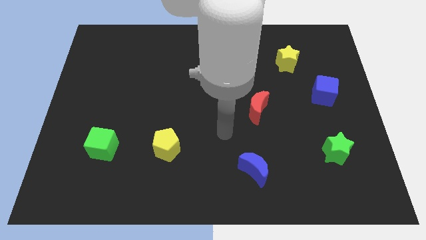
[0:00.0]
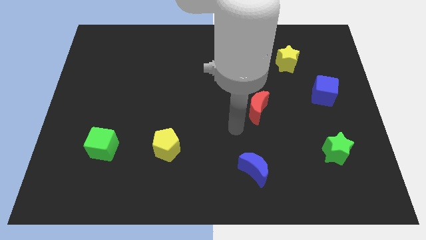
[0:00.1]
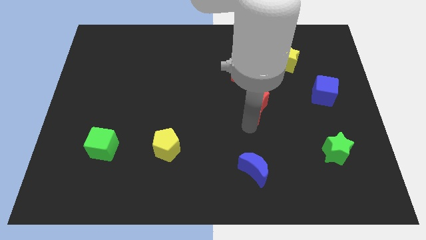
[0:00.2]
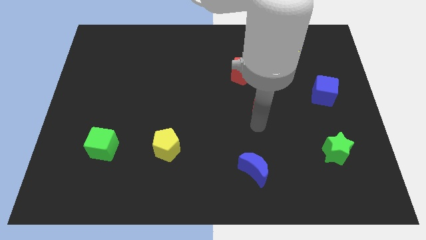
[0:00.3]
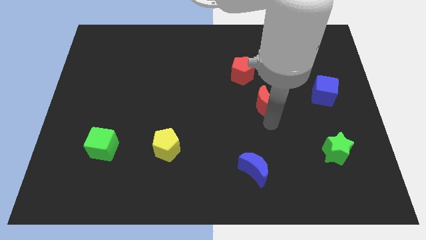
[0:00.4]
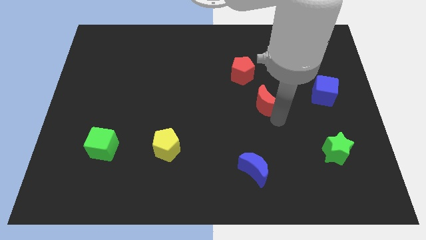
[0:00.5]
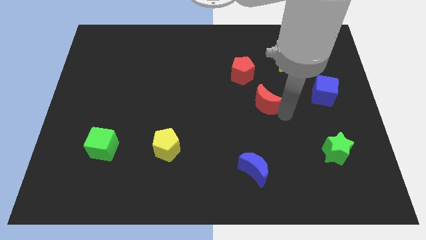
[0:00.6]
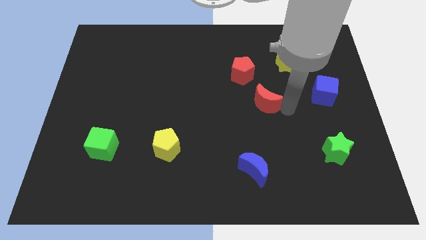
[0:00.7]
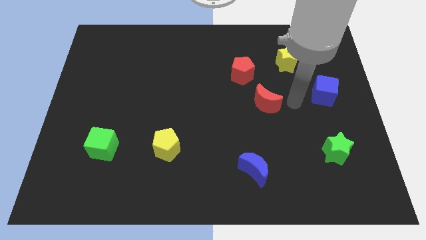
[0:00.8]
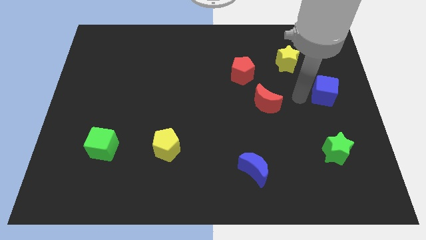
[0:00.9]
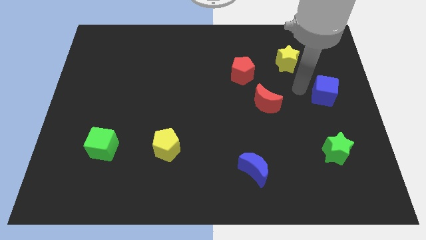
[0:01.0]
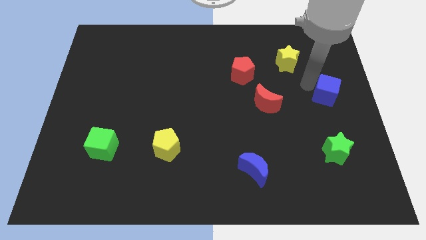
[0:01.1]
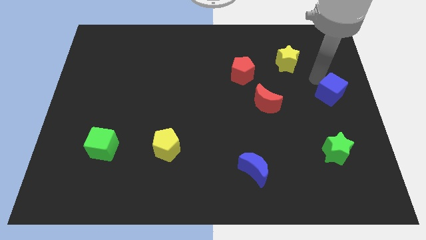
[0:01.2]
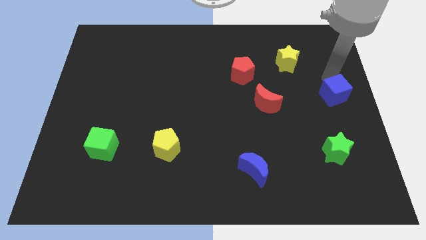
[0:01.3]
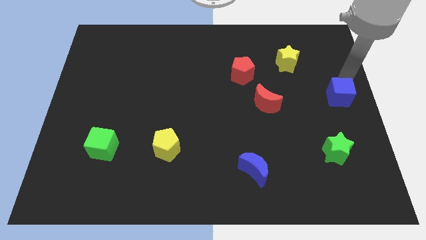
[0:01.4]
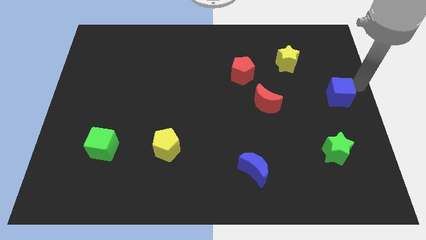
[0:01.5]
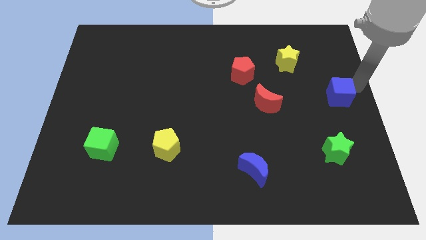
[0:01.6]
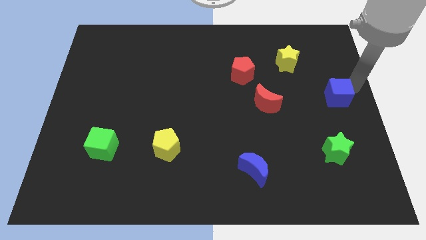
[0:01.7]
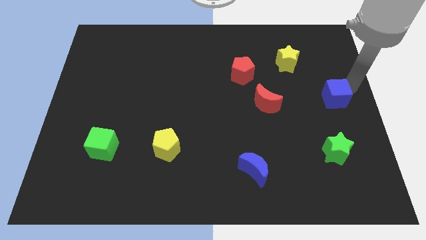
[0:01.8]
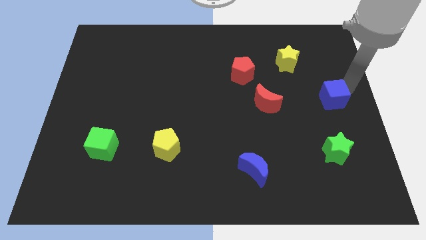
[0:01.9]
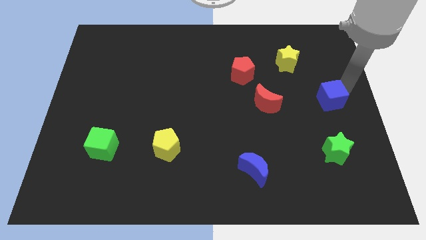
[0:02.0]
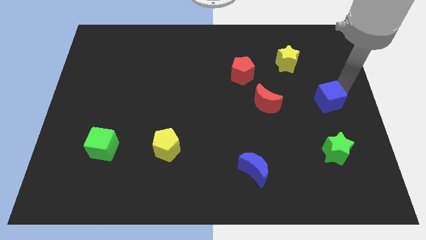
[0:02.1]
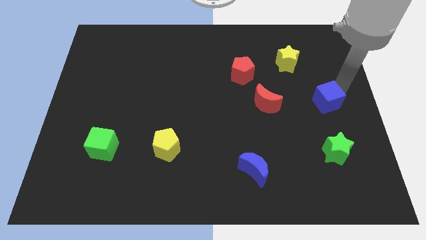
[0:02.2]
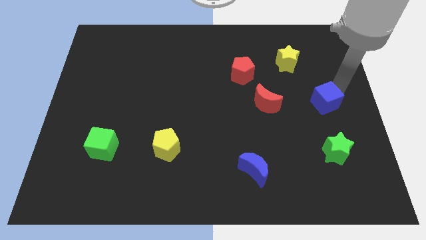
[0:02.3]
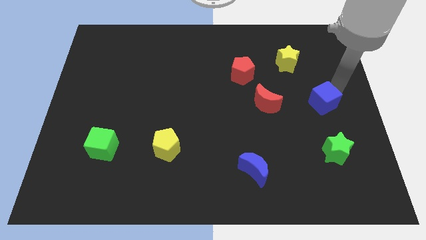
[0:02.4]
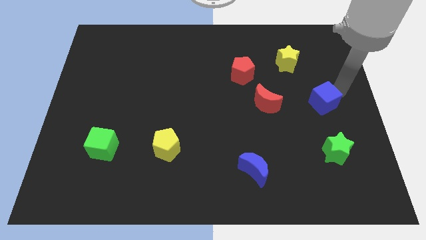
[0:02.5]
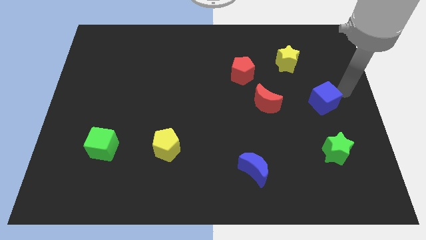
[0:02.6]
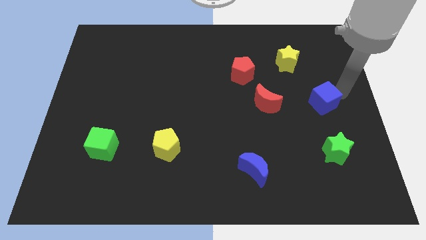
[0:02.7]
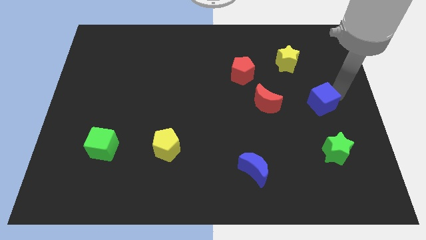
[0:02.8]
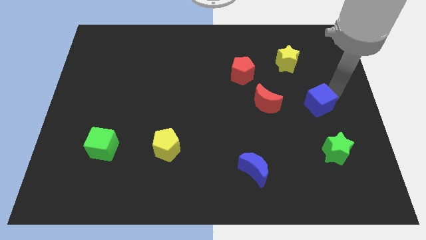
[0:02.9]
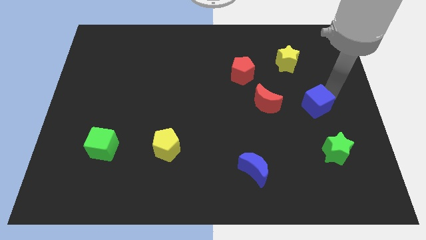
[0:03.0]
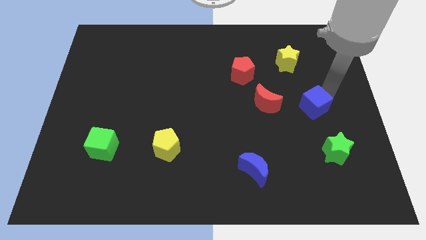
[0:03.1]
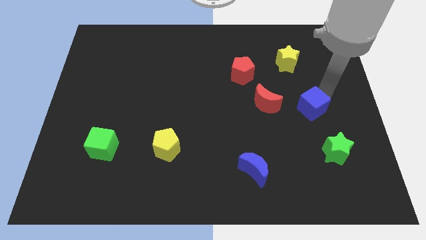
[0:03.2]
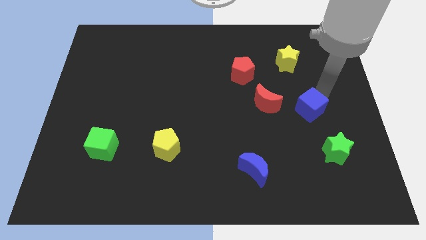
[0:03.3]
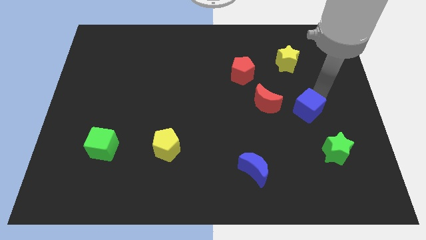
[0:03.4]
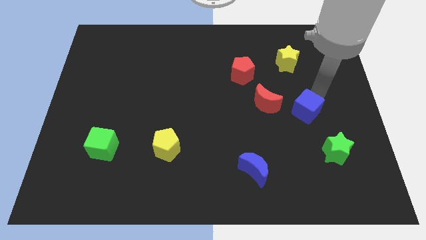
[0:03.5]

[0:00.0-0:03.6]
slightly push the blue cube downwards and to the left diagonally

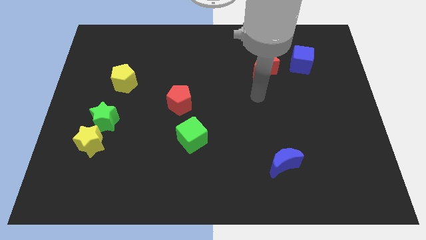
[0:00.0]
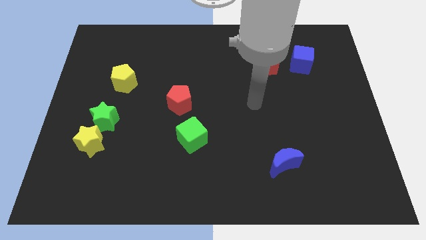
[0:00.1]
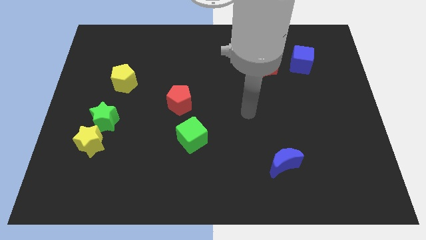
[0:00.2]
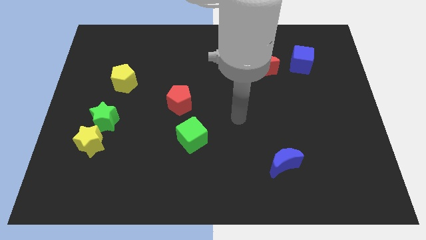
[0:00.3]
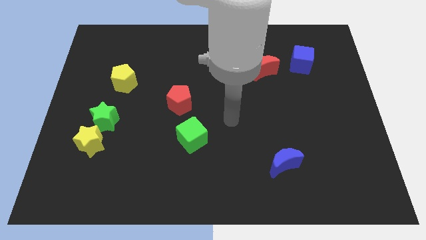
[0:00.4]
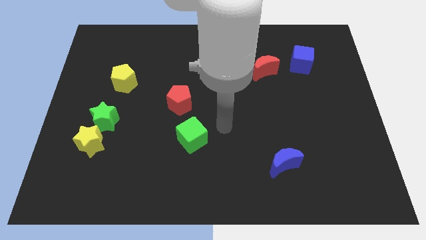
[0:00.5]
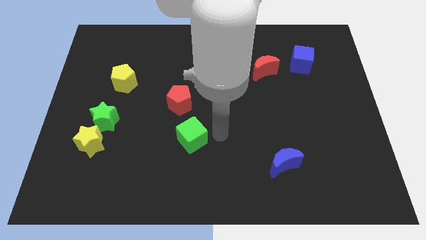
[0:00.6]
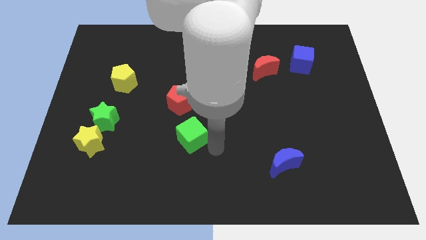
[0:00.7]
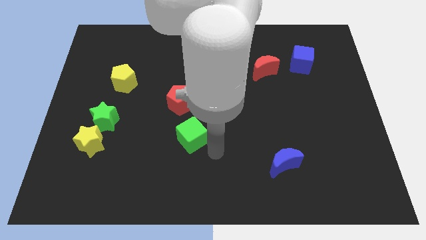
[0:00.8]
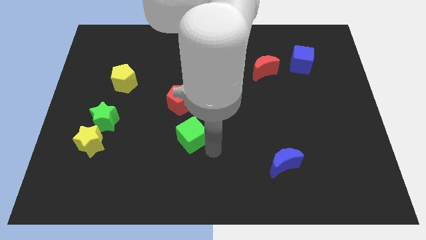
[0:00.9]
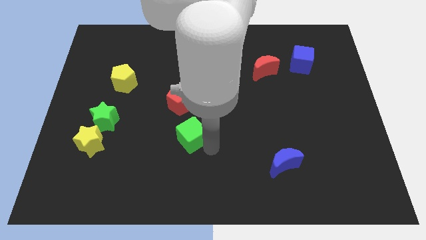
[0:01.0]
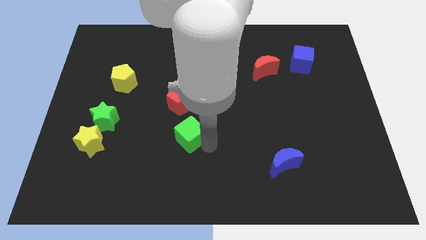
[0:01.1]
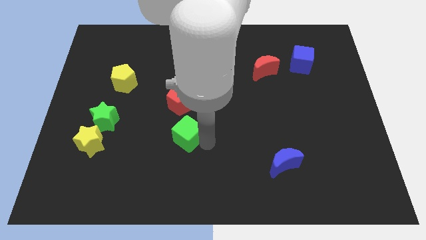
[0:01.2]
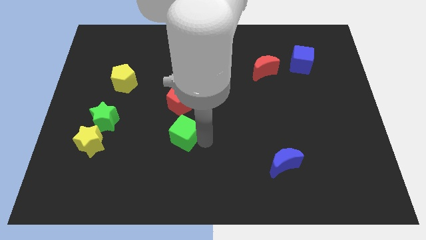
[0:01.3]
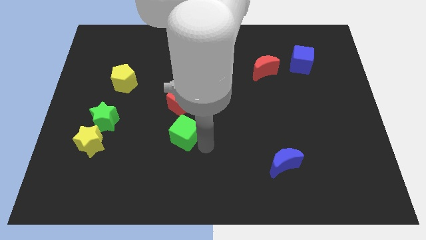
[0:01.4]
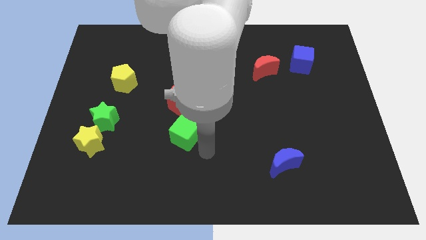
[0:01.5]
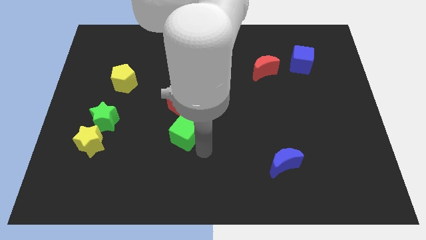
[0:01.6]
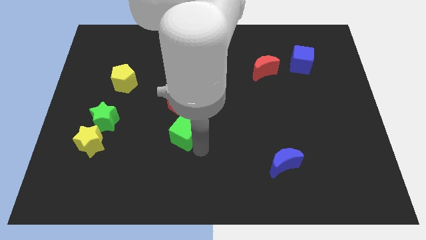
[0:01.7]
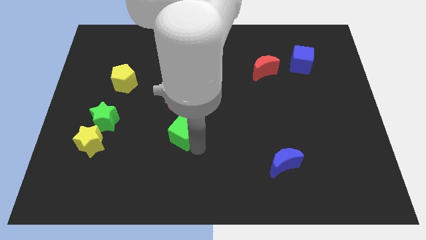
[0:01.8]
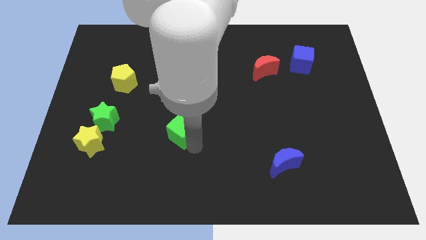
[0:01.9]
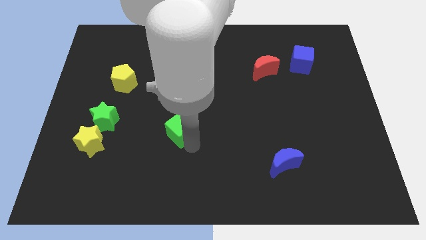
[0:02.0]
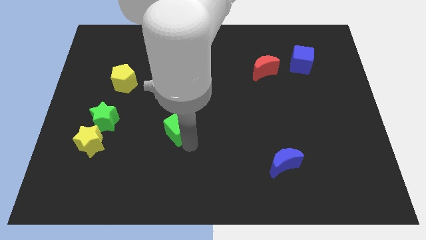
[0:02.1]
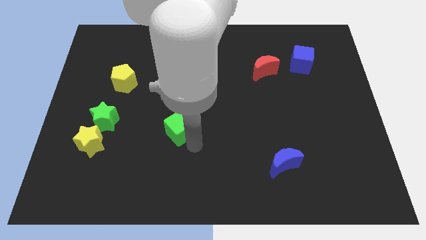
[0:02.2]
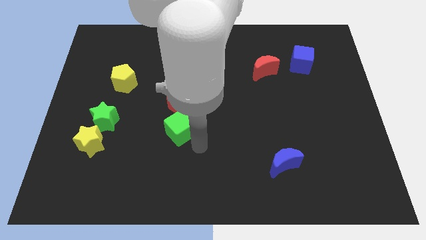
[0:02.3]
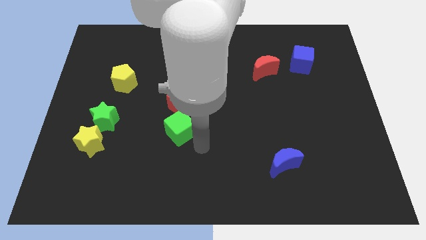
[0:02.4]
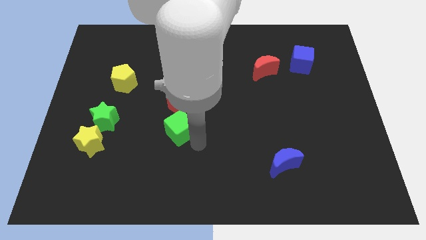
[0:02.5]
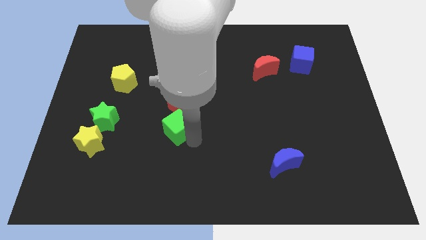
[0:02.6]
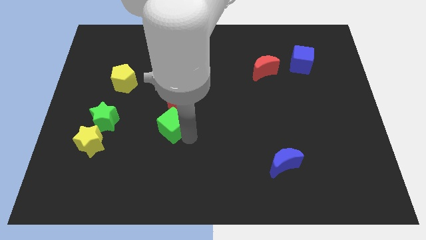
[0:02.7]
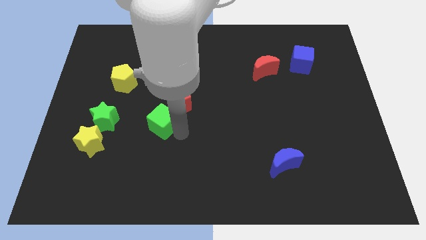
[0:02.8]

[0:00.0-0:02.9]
slide the green cube diagonally up and to the left somewhat

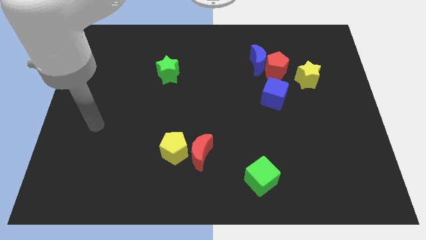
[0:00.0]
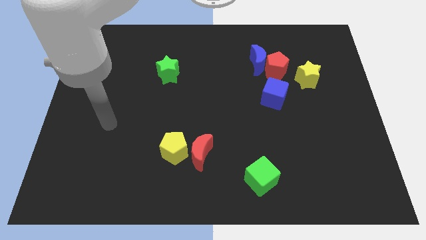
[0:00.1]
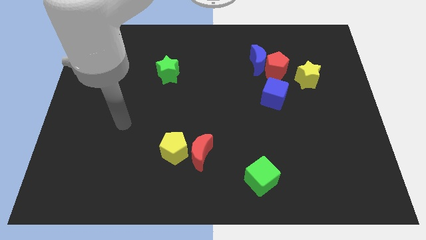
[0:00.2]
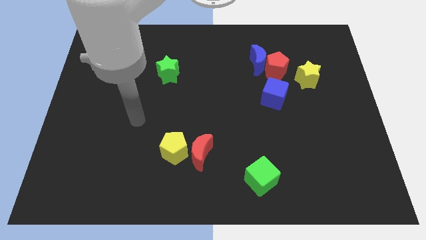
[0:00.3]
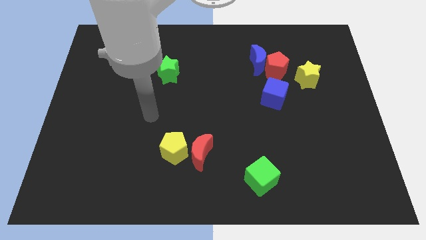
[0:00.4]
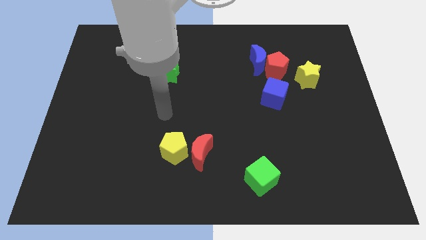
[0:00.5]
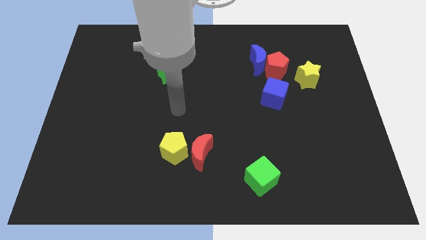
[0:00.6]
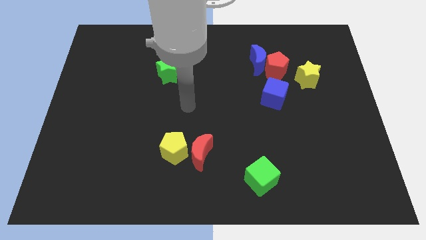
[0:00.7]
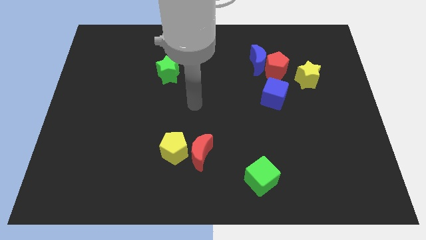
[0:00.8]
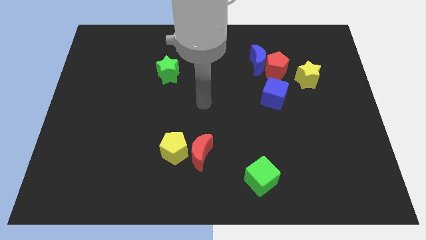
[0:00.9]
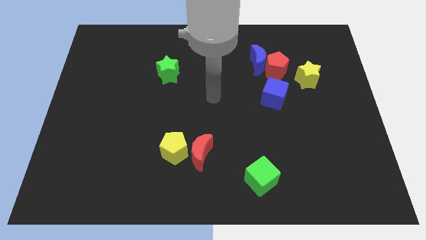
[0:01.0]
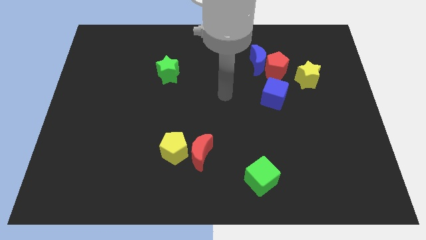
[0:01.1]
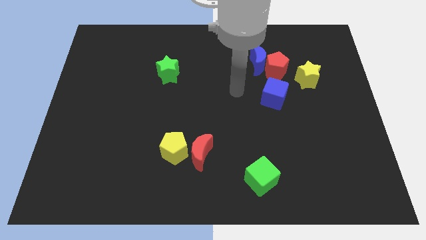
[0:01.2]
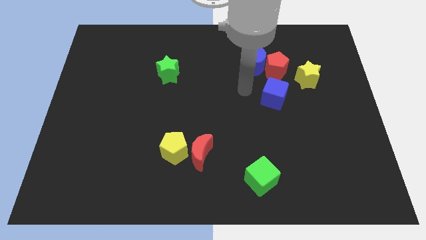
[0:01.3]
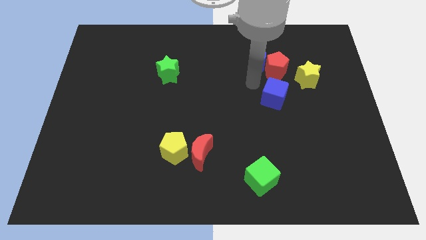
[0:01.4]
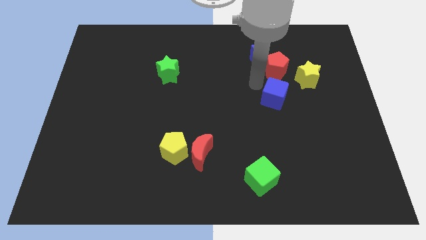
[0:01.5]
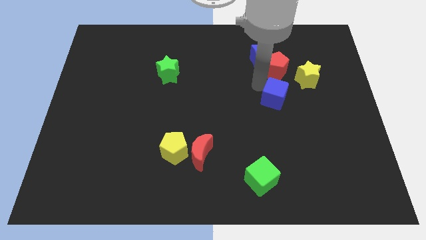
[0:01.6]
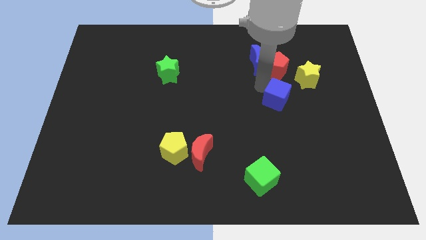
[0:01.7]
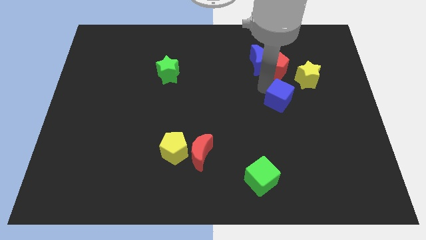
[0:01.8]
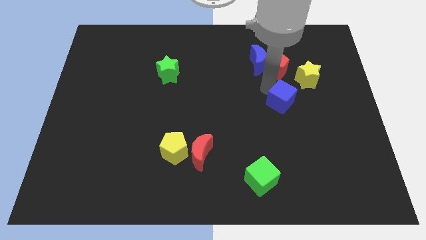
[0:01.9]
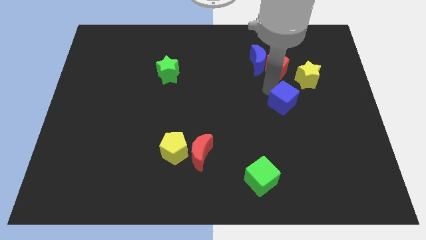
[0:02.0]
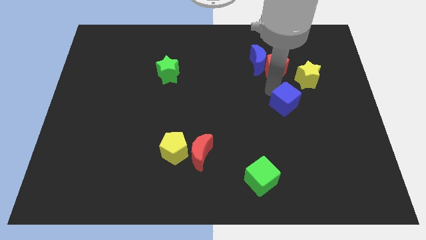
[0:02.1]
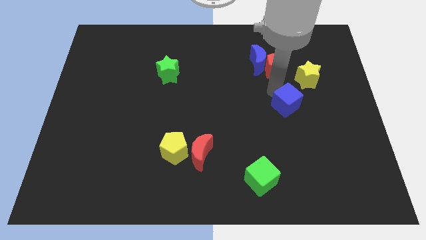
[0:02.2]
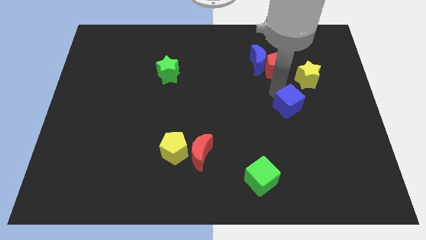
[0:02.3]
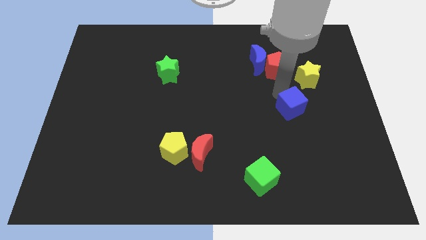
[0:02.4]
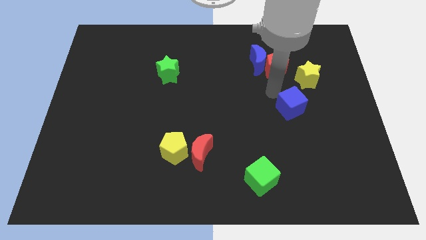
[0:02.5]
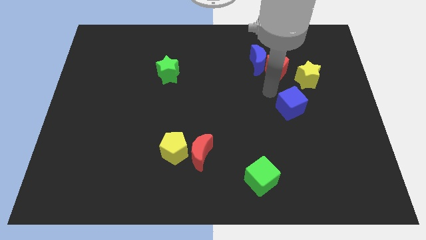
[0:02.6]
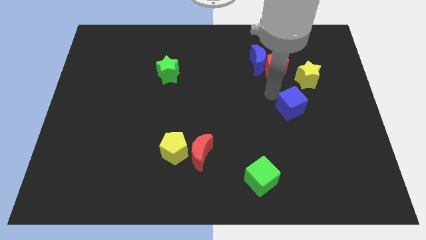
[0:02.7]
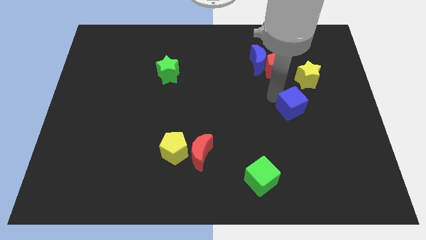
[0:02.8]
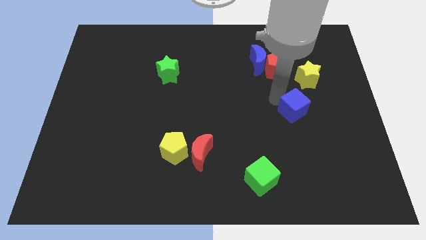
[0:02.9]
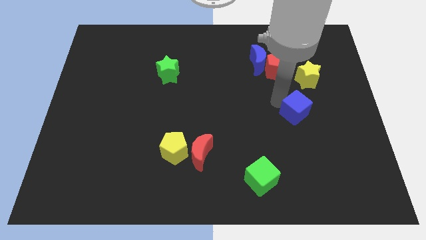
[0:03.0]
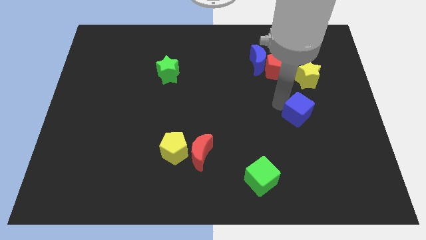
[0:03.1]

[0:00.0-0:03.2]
slightly slide the blue cube down and right
